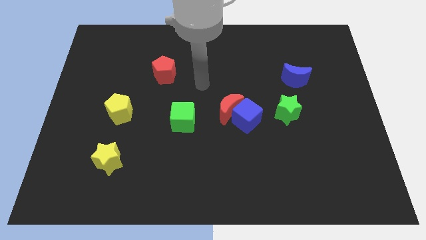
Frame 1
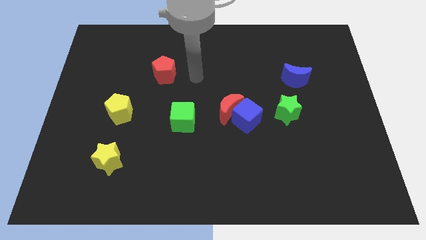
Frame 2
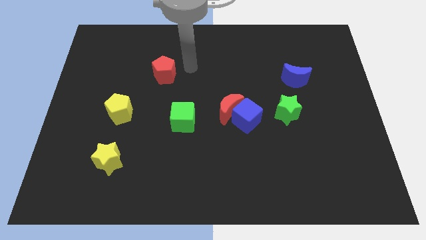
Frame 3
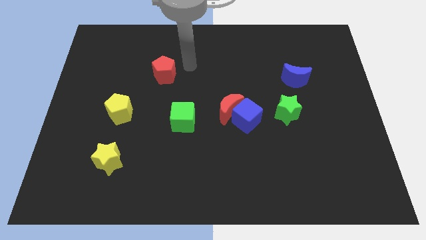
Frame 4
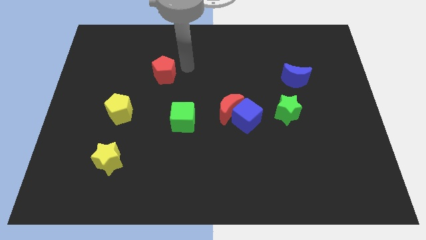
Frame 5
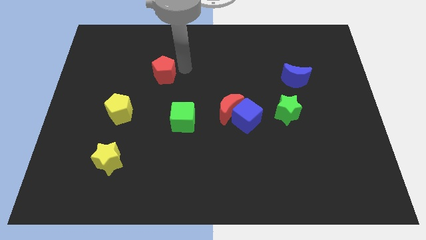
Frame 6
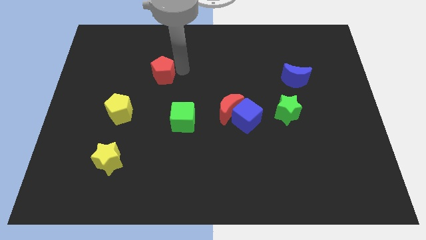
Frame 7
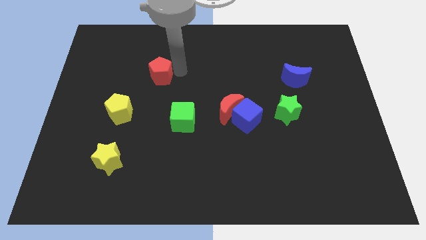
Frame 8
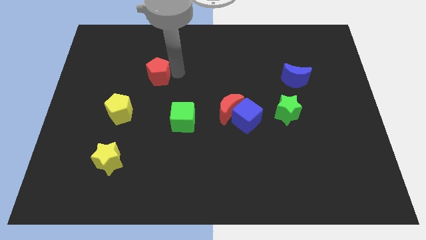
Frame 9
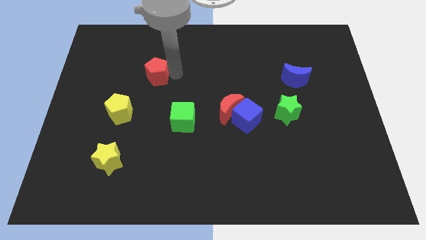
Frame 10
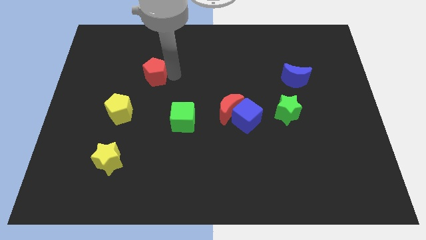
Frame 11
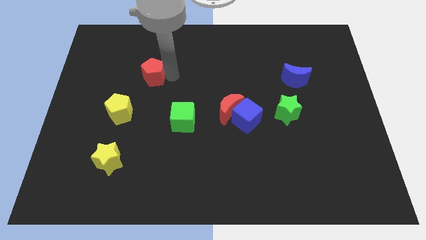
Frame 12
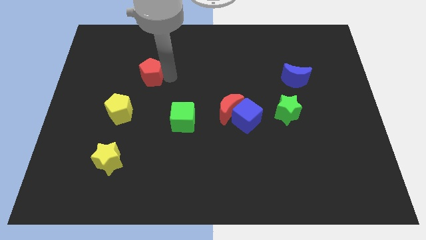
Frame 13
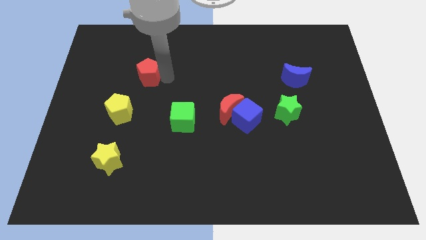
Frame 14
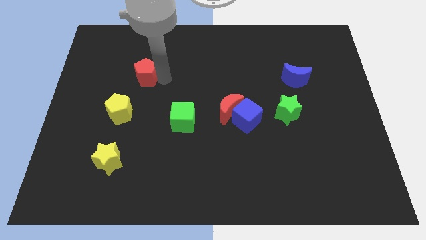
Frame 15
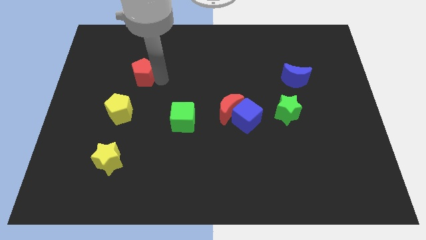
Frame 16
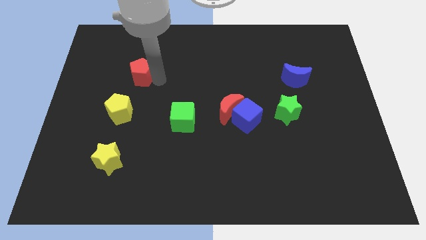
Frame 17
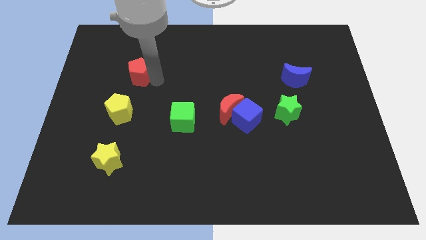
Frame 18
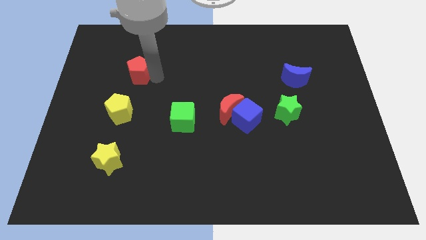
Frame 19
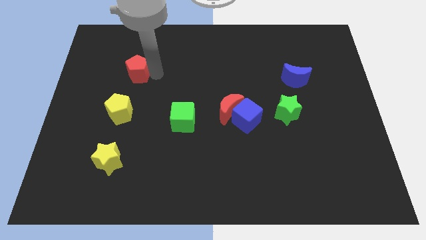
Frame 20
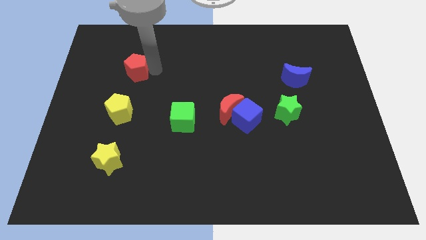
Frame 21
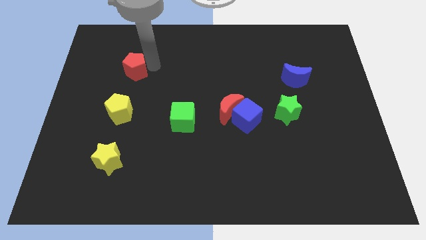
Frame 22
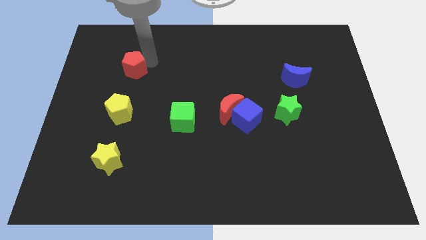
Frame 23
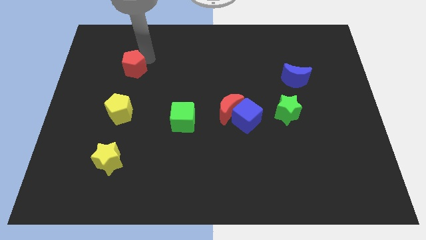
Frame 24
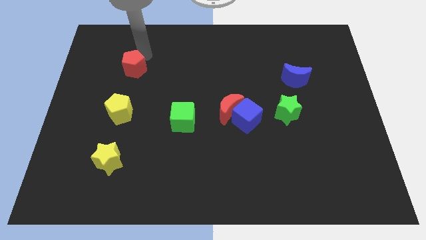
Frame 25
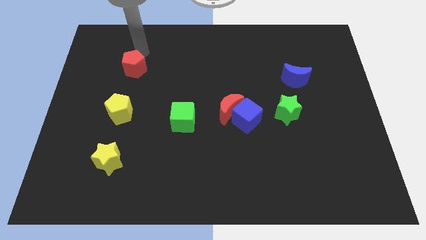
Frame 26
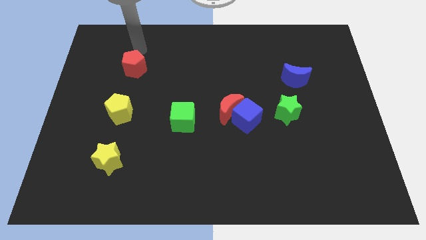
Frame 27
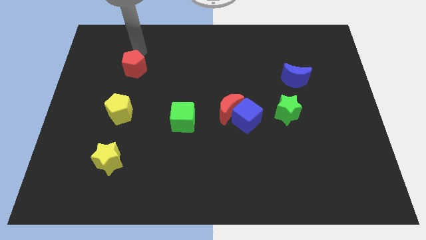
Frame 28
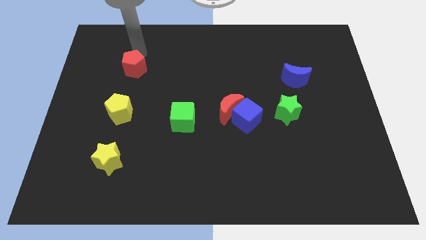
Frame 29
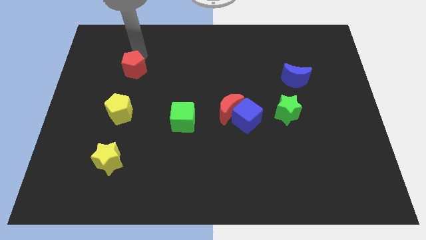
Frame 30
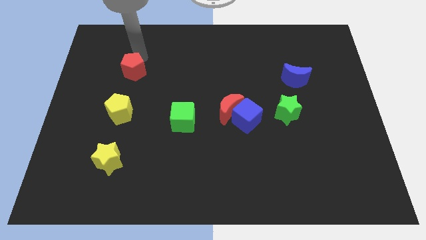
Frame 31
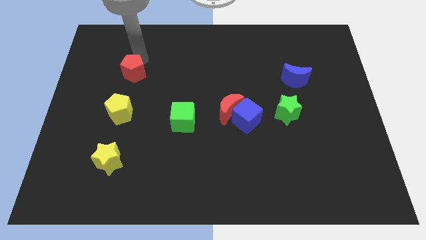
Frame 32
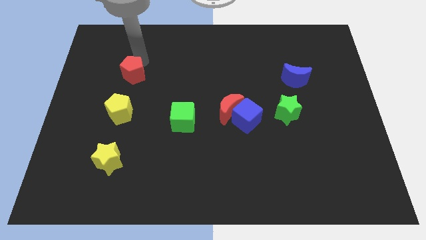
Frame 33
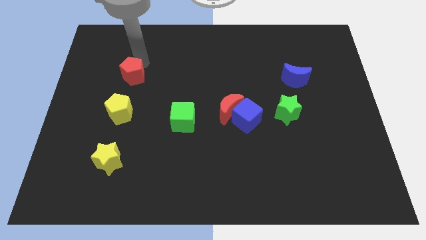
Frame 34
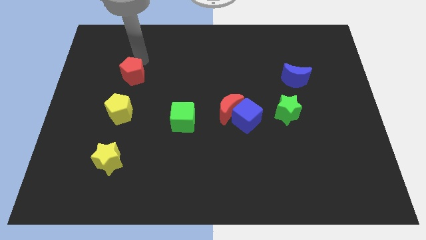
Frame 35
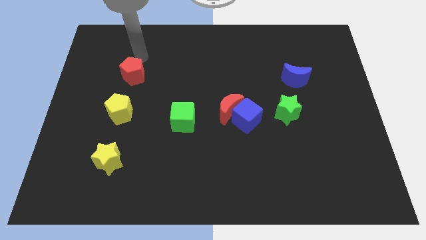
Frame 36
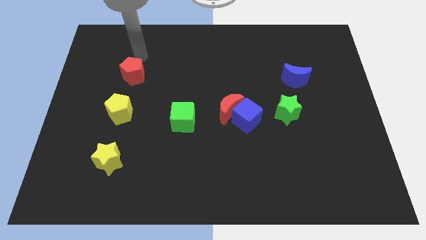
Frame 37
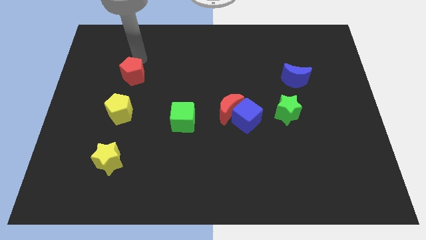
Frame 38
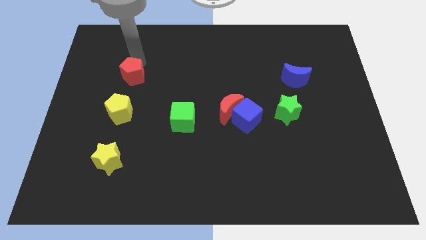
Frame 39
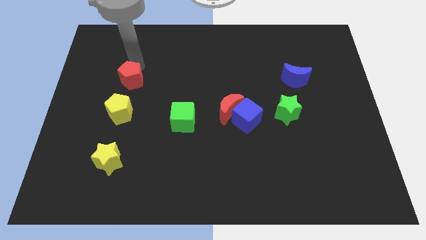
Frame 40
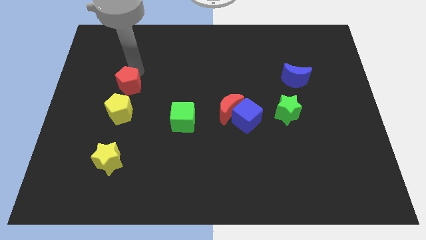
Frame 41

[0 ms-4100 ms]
push the red pentagon down and to the left diagonally slightly

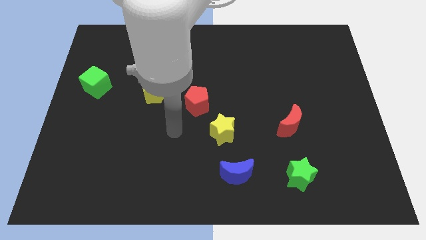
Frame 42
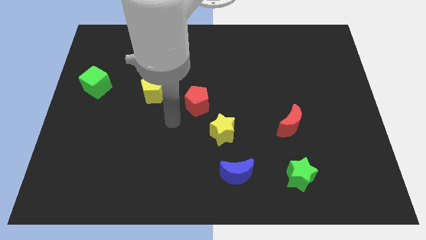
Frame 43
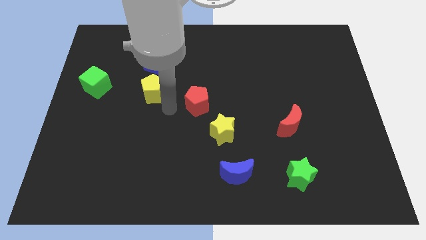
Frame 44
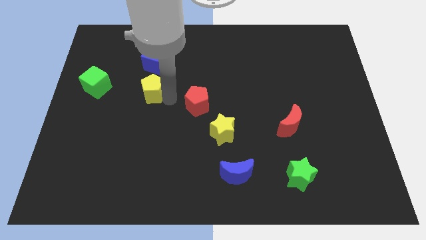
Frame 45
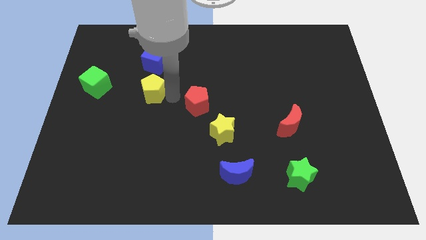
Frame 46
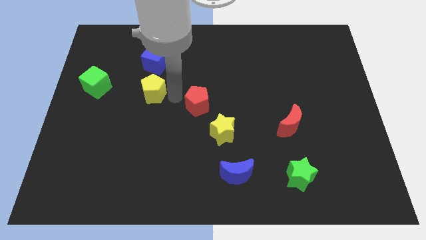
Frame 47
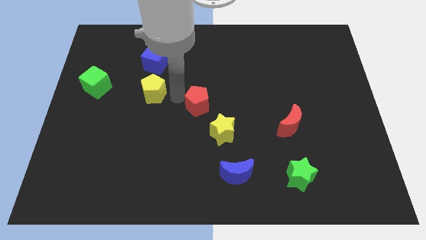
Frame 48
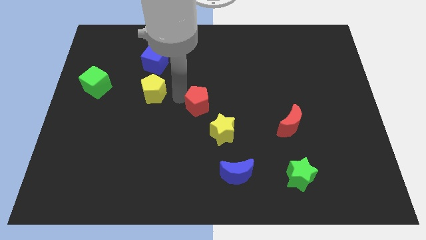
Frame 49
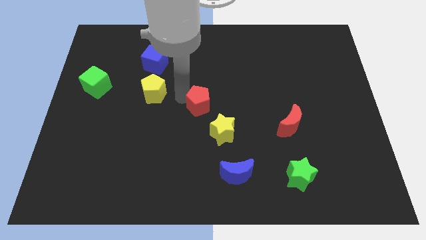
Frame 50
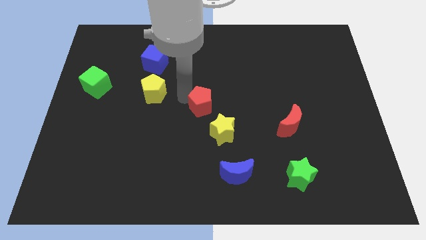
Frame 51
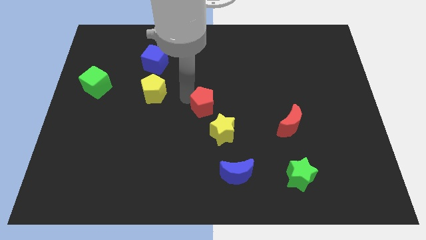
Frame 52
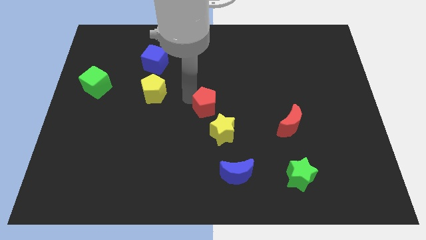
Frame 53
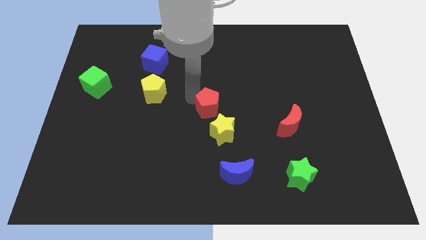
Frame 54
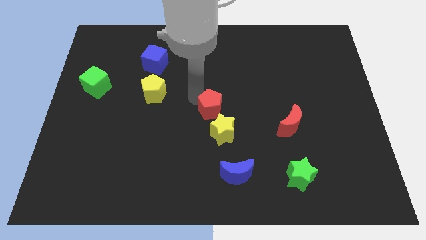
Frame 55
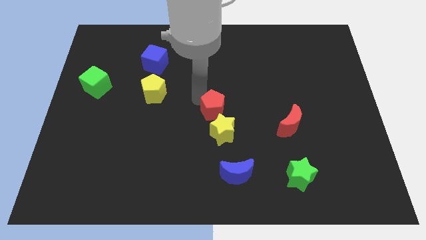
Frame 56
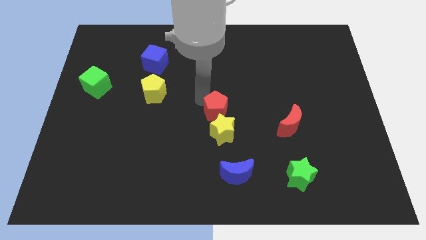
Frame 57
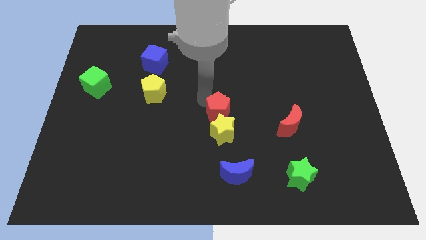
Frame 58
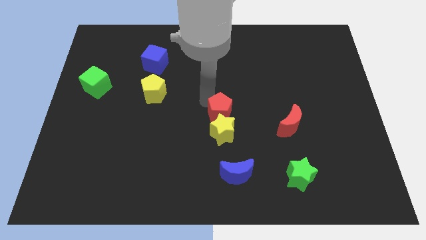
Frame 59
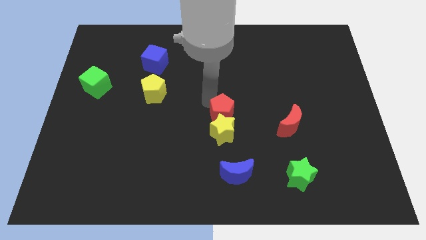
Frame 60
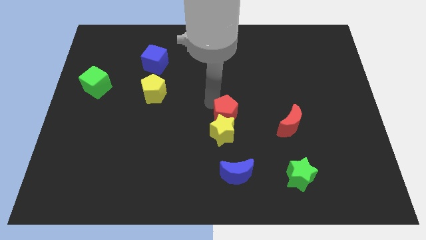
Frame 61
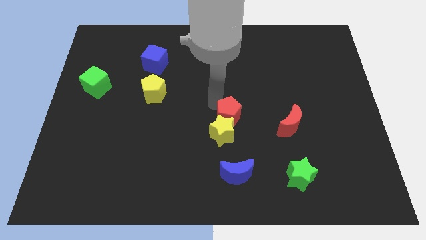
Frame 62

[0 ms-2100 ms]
slightly push the red pentagon down and right diagonally

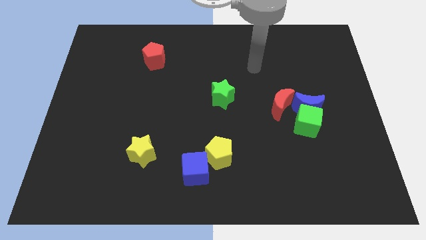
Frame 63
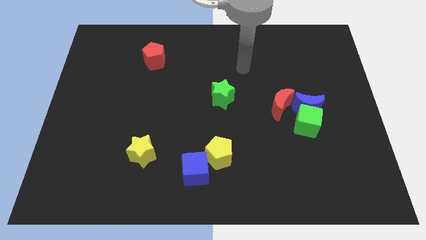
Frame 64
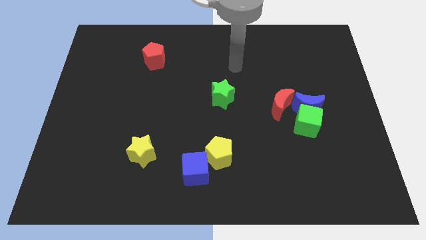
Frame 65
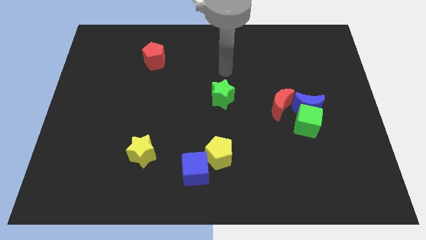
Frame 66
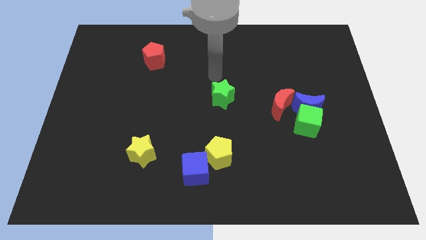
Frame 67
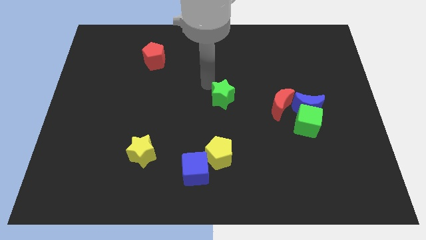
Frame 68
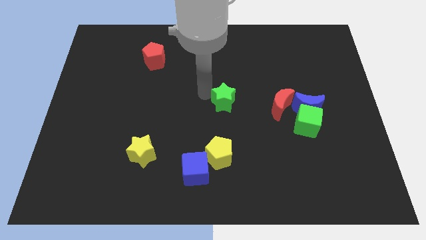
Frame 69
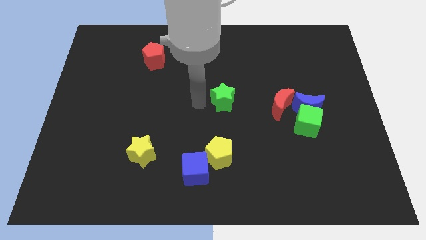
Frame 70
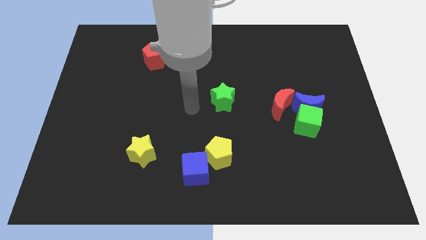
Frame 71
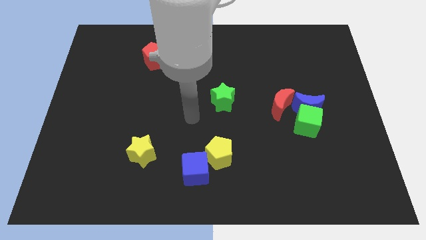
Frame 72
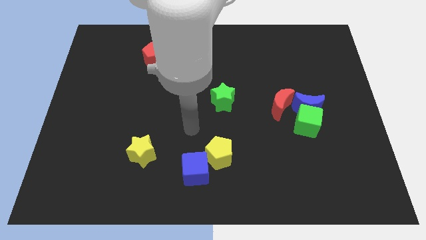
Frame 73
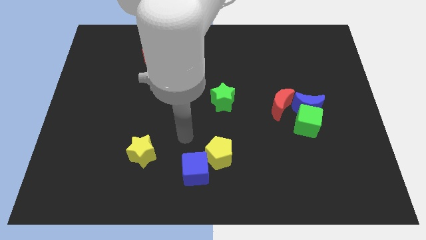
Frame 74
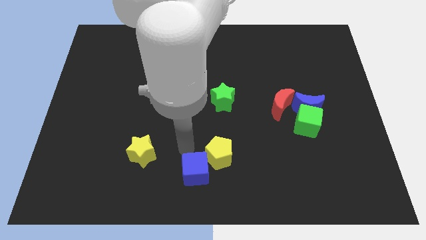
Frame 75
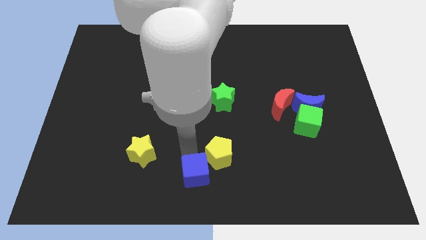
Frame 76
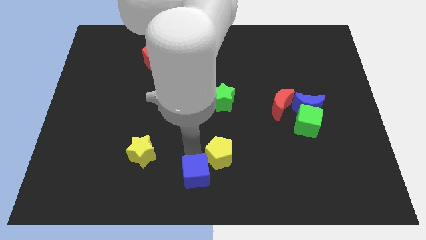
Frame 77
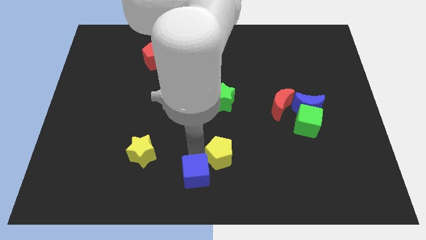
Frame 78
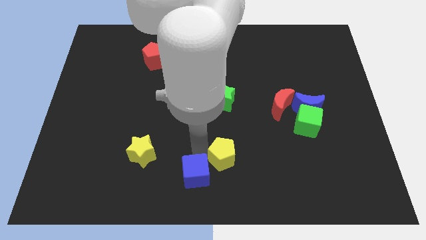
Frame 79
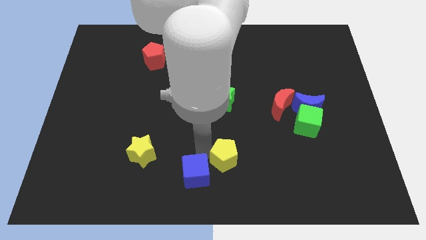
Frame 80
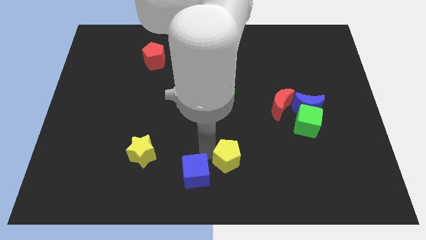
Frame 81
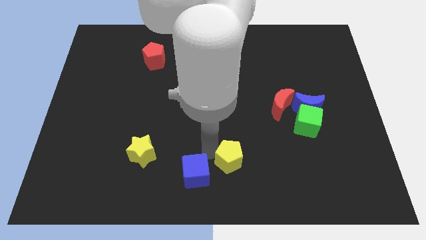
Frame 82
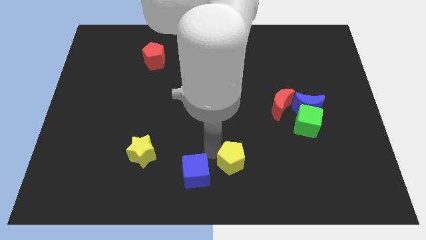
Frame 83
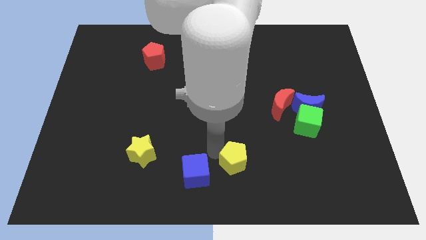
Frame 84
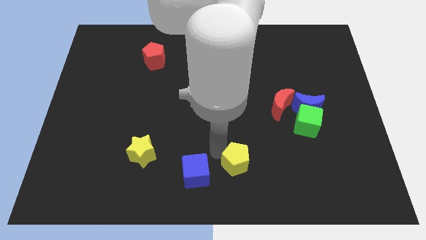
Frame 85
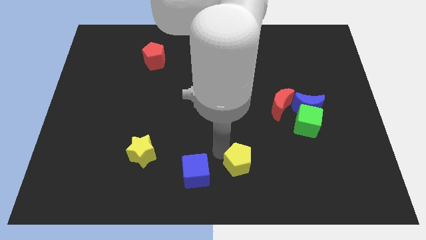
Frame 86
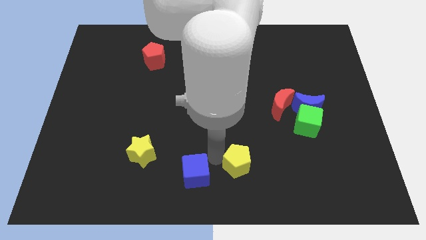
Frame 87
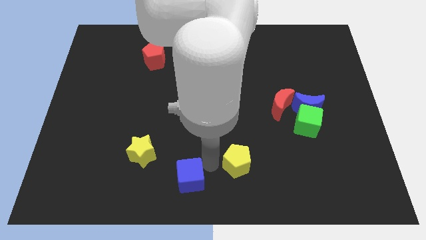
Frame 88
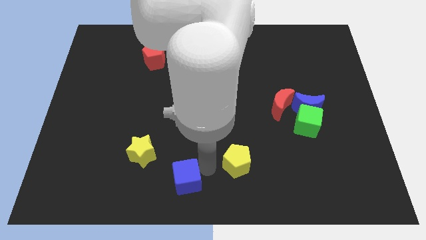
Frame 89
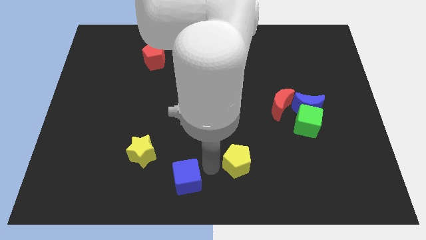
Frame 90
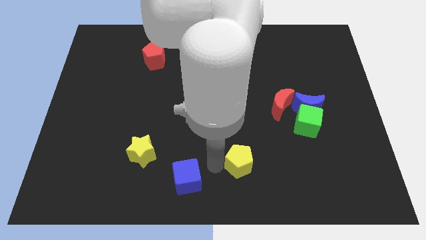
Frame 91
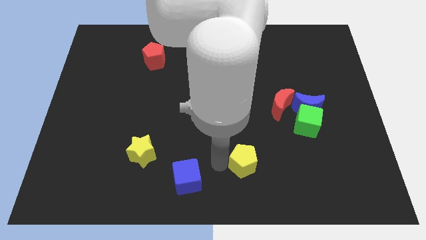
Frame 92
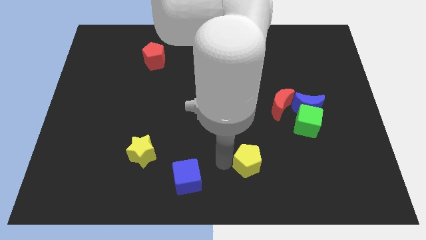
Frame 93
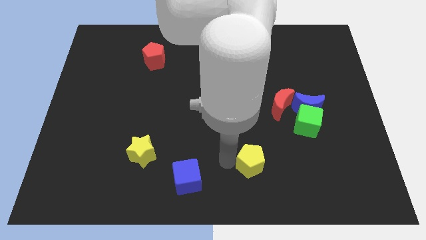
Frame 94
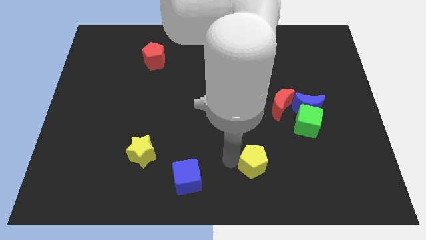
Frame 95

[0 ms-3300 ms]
slightly push the yellow pentagon right
